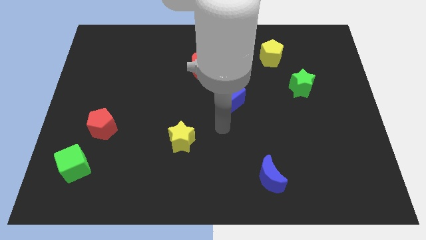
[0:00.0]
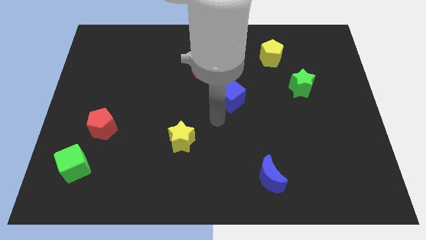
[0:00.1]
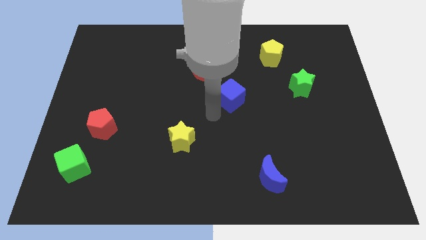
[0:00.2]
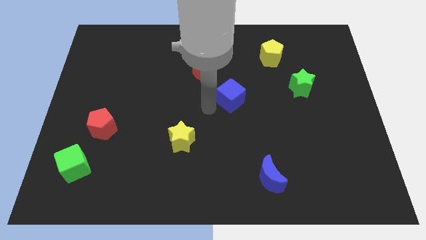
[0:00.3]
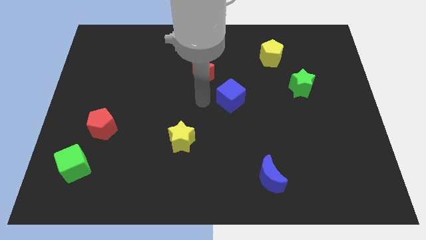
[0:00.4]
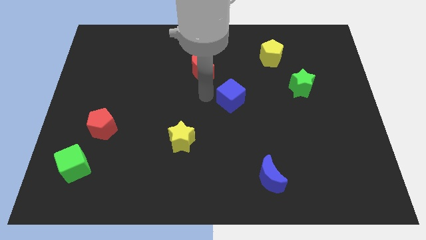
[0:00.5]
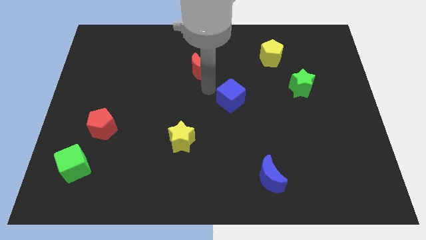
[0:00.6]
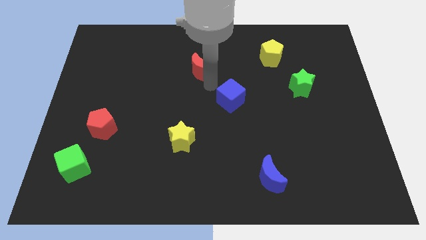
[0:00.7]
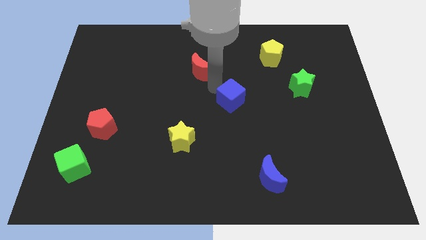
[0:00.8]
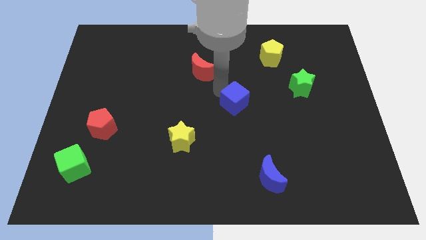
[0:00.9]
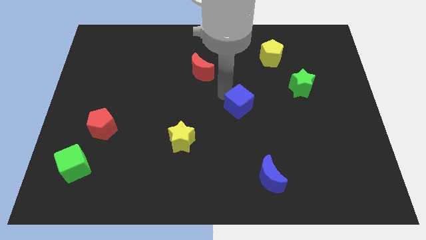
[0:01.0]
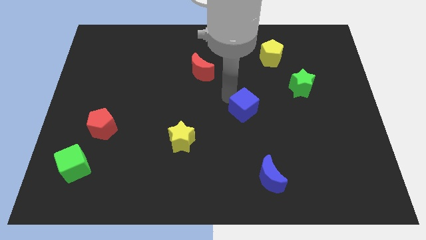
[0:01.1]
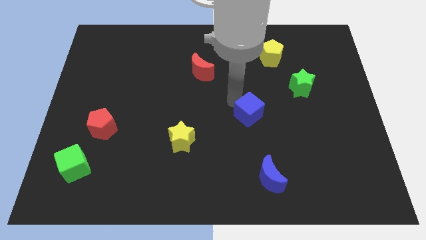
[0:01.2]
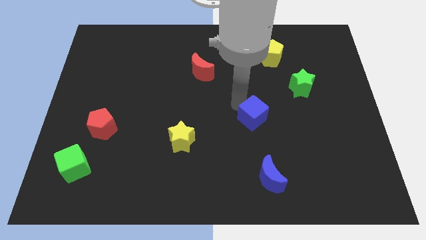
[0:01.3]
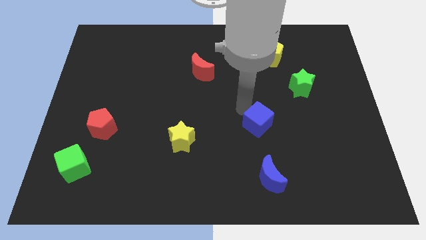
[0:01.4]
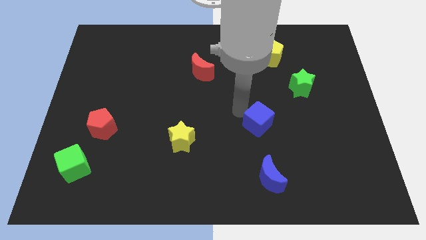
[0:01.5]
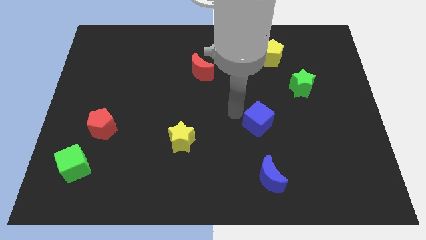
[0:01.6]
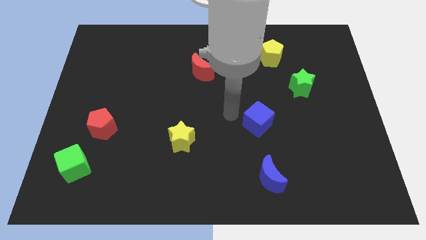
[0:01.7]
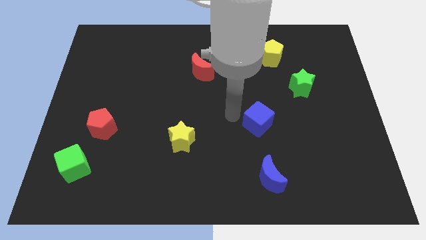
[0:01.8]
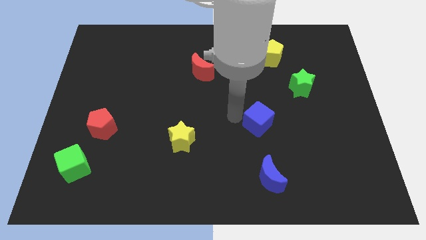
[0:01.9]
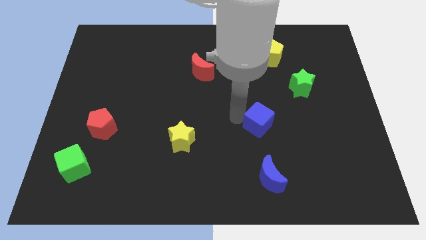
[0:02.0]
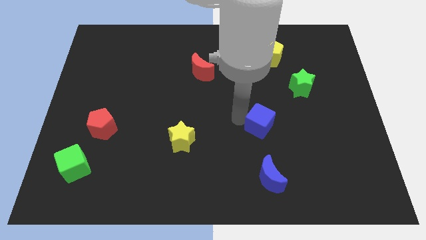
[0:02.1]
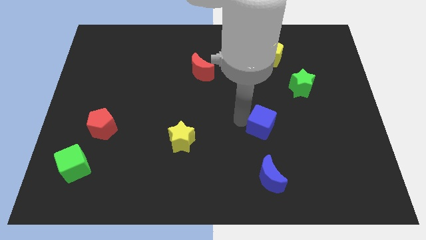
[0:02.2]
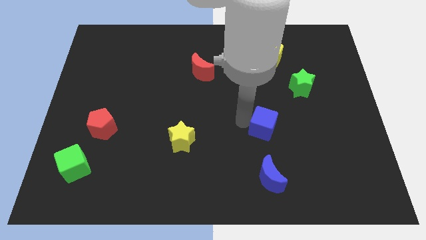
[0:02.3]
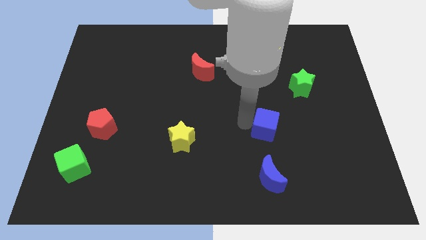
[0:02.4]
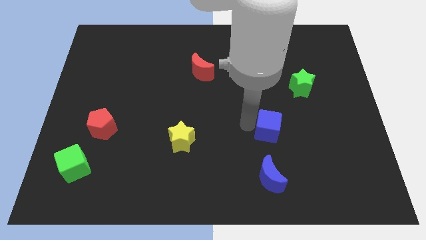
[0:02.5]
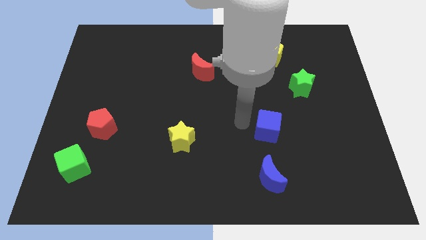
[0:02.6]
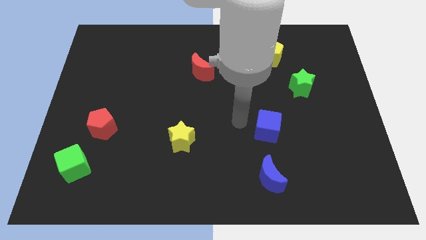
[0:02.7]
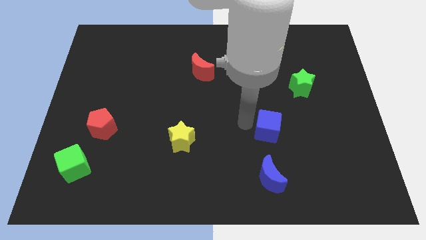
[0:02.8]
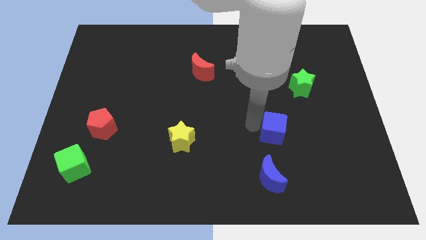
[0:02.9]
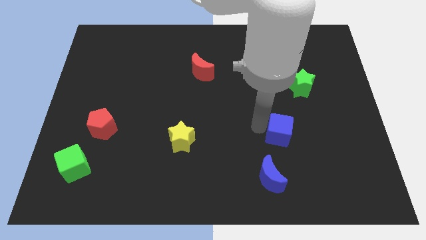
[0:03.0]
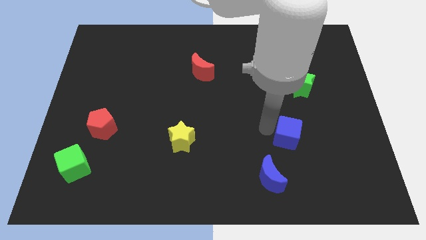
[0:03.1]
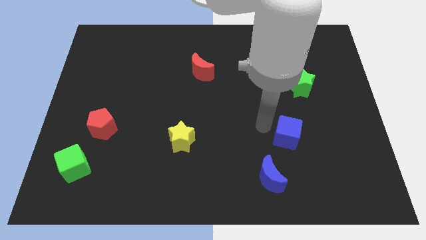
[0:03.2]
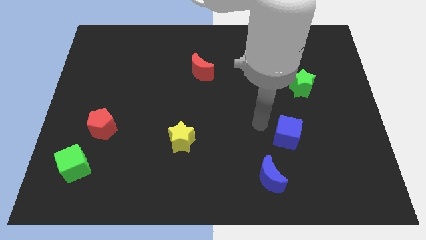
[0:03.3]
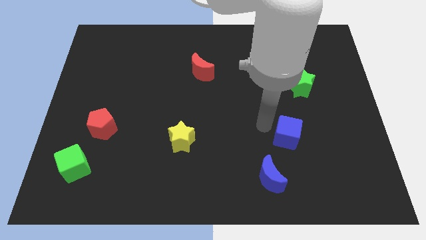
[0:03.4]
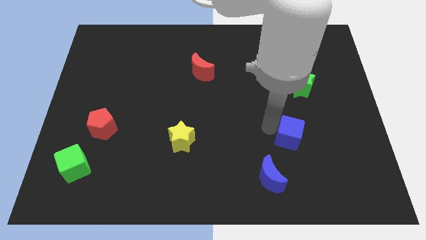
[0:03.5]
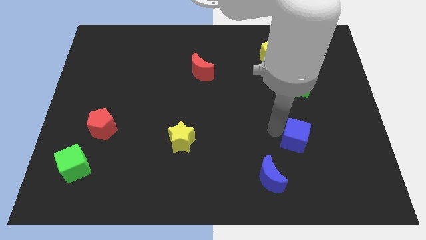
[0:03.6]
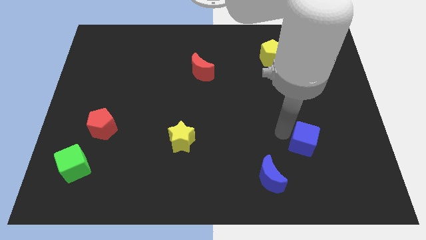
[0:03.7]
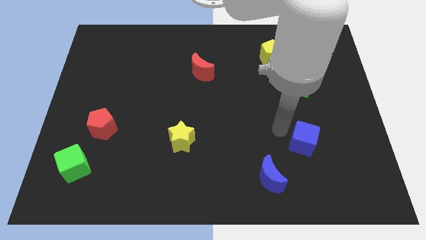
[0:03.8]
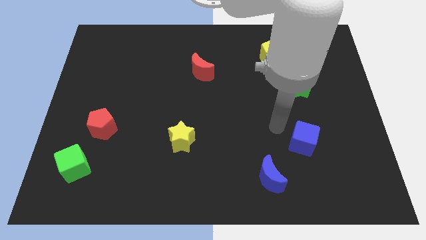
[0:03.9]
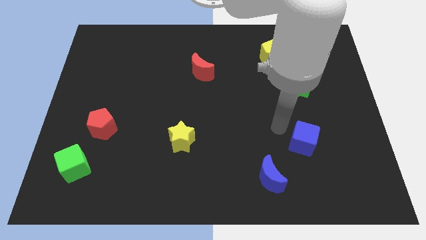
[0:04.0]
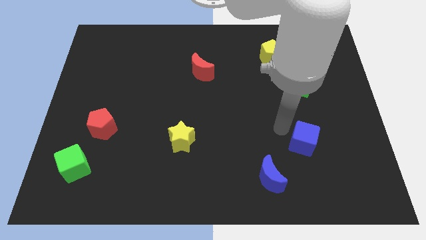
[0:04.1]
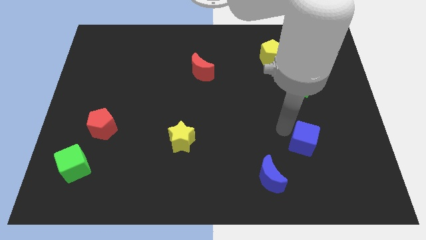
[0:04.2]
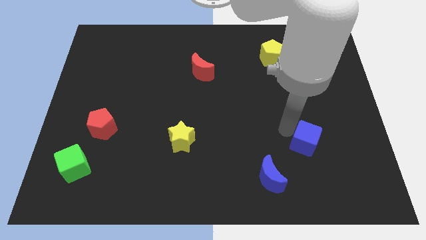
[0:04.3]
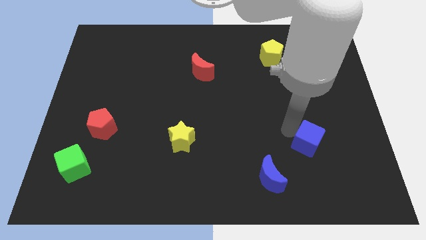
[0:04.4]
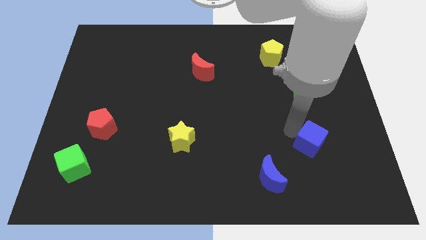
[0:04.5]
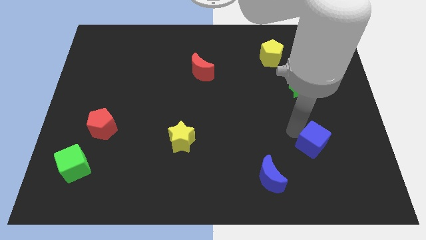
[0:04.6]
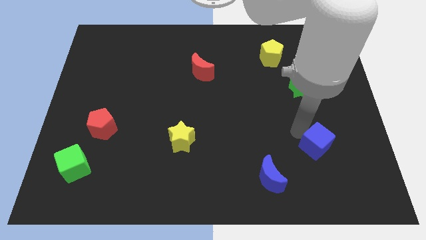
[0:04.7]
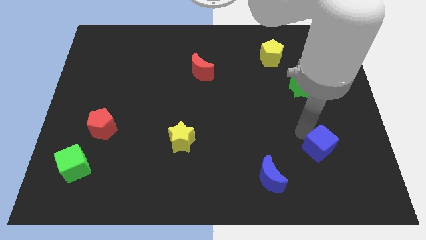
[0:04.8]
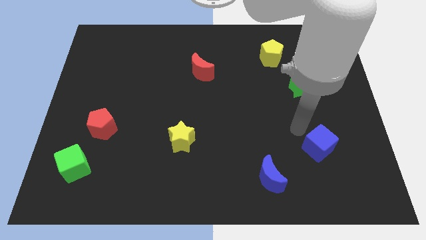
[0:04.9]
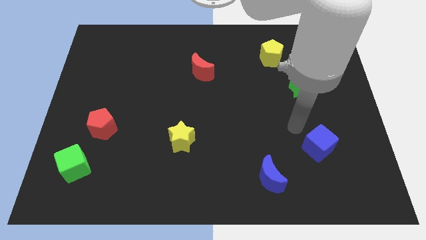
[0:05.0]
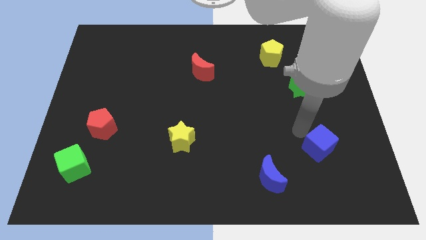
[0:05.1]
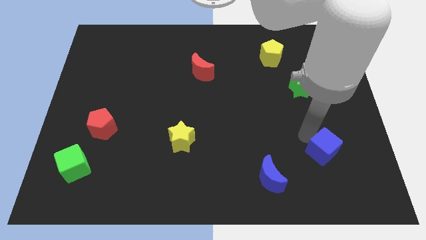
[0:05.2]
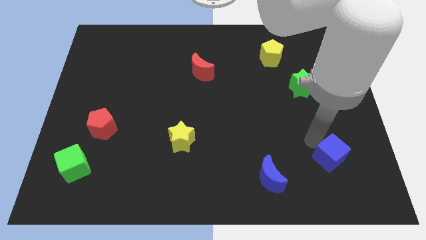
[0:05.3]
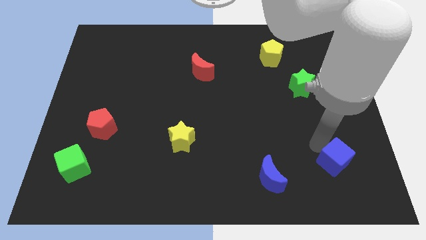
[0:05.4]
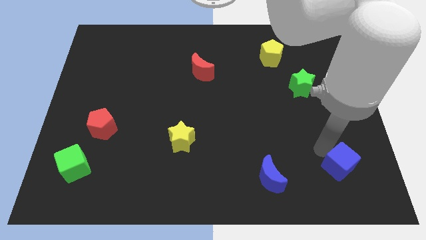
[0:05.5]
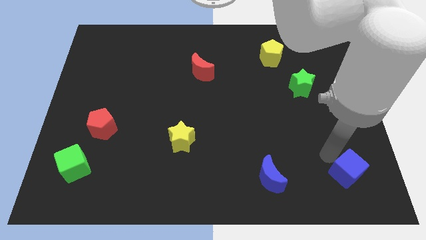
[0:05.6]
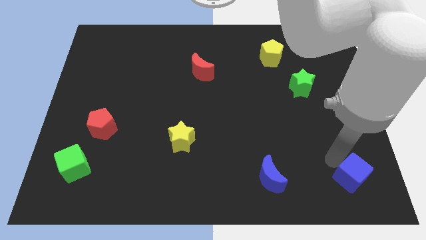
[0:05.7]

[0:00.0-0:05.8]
put the blue cube to the bottom right

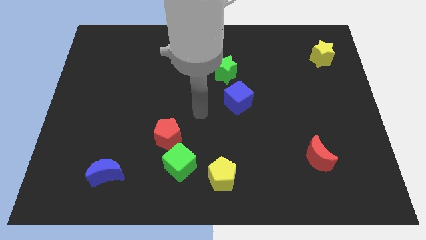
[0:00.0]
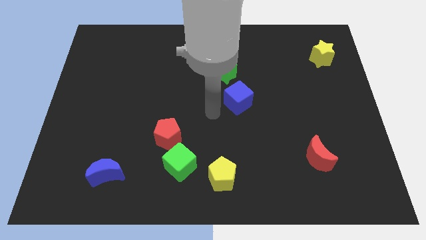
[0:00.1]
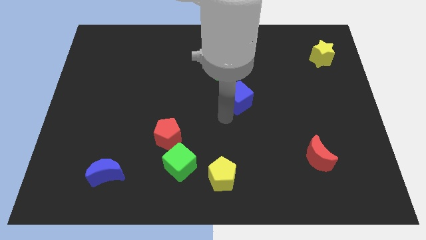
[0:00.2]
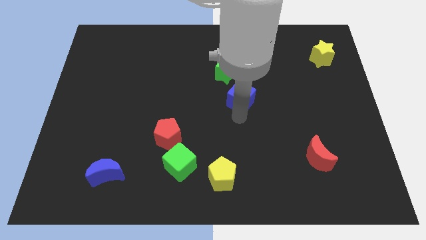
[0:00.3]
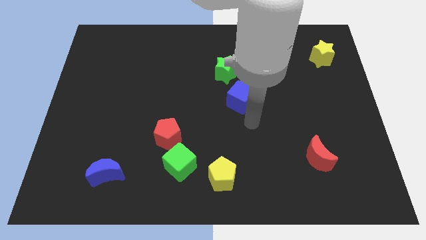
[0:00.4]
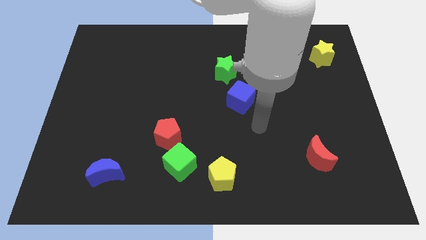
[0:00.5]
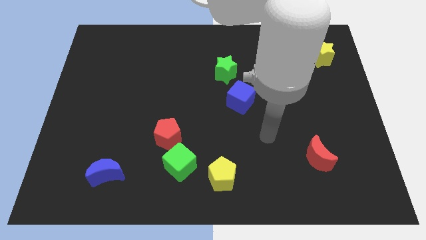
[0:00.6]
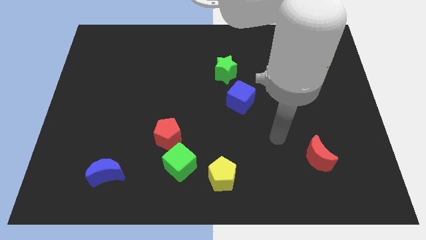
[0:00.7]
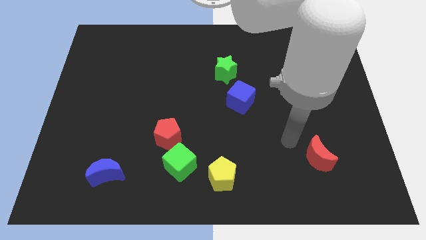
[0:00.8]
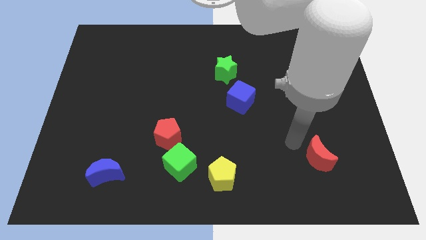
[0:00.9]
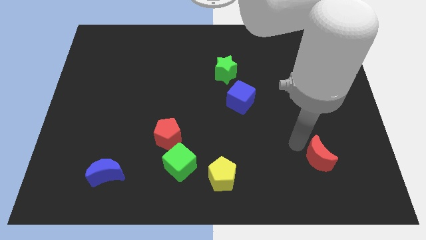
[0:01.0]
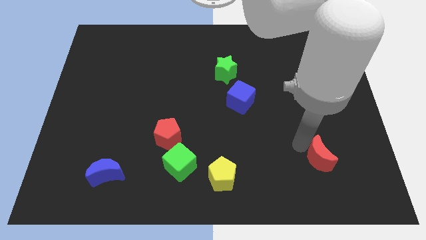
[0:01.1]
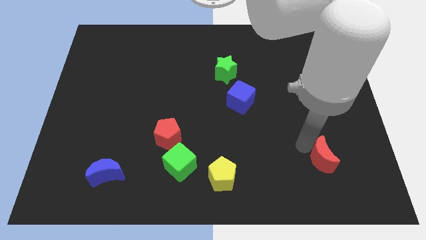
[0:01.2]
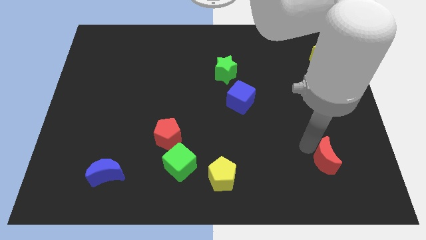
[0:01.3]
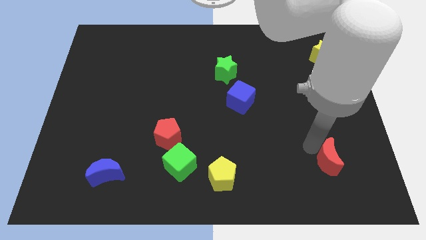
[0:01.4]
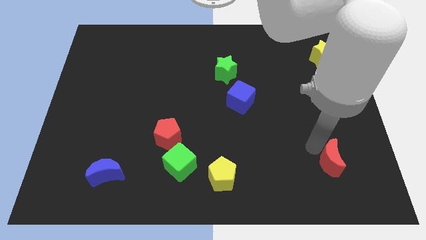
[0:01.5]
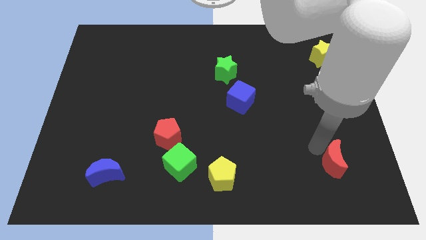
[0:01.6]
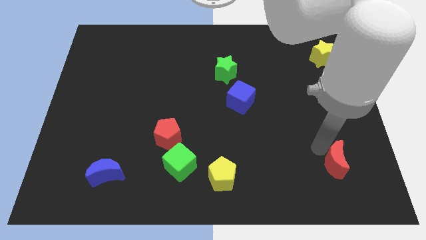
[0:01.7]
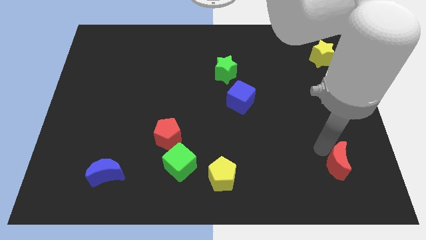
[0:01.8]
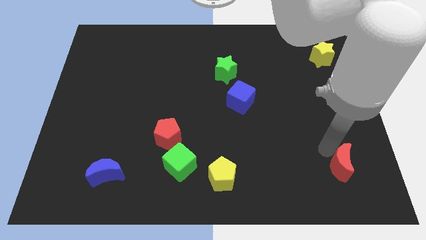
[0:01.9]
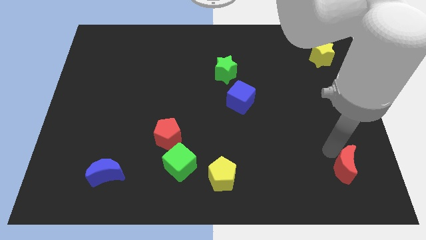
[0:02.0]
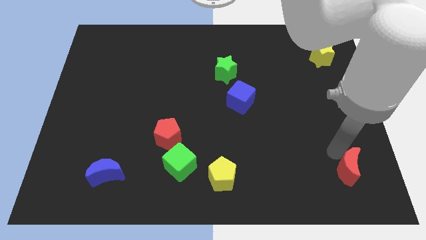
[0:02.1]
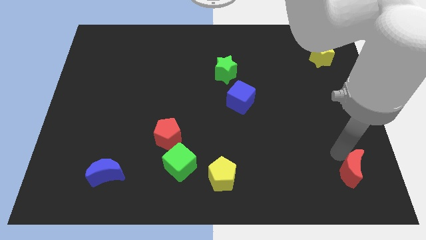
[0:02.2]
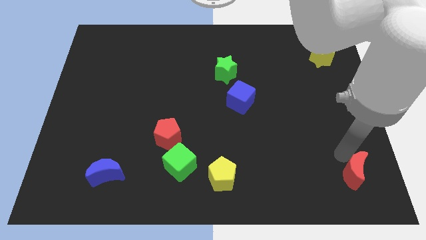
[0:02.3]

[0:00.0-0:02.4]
slide the red moon to the bottom right
